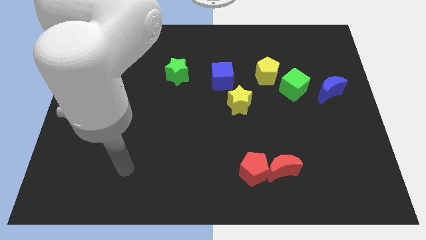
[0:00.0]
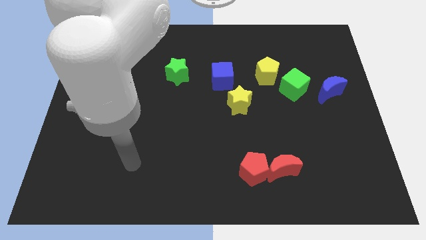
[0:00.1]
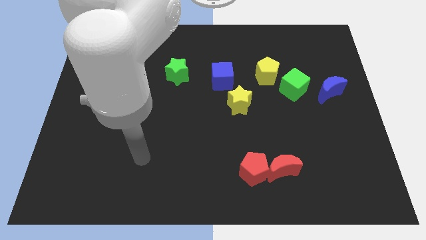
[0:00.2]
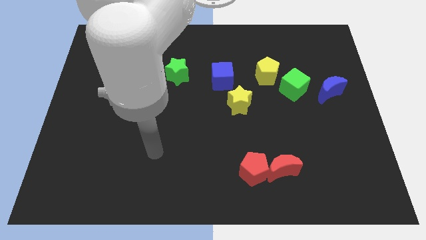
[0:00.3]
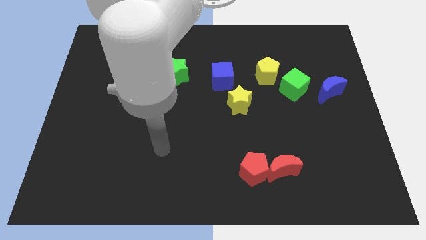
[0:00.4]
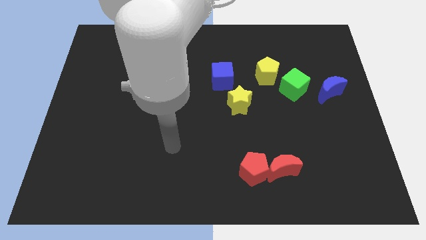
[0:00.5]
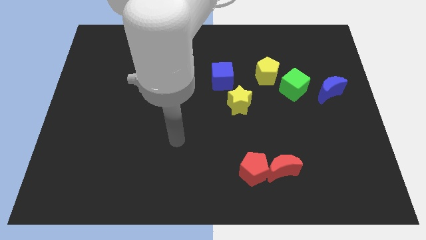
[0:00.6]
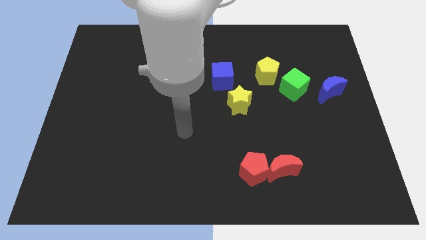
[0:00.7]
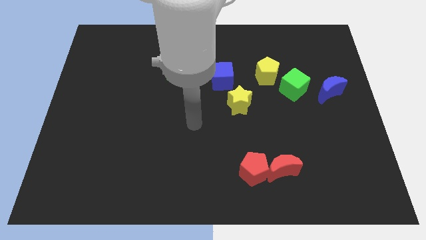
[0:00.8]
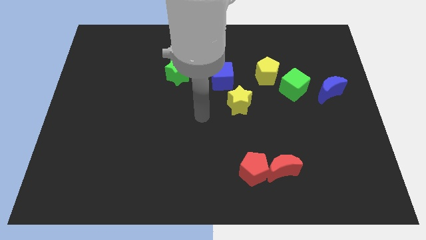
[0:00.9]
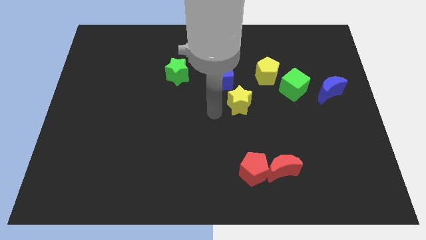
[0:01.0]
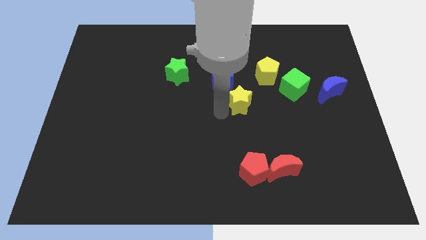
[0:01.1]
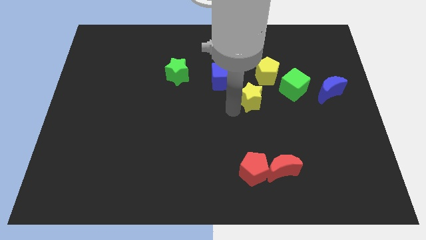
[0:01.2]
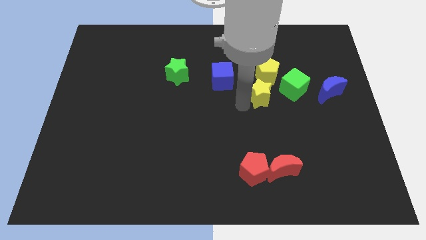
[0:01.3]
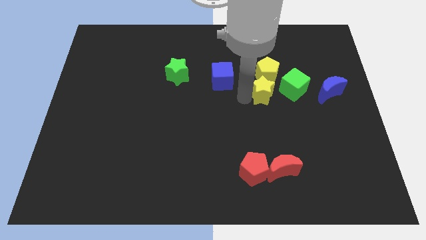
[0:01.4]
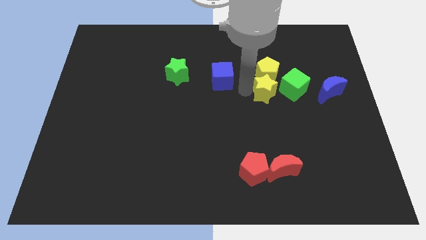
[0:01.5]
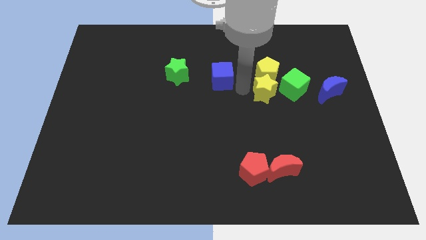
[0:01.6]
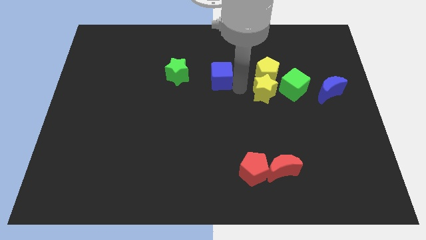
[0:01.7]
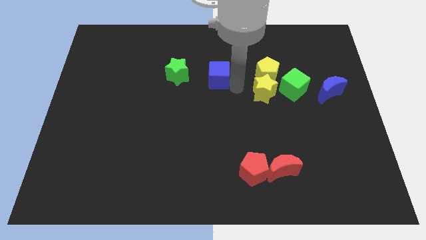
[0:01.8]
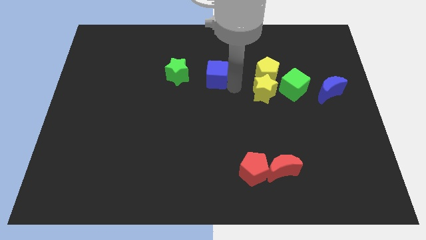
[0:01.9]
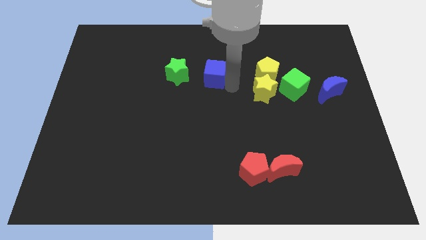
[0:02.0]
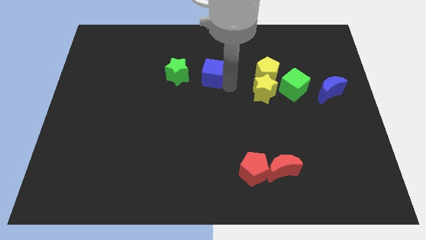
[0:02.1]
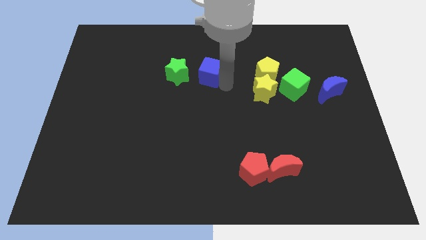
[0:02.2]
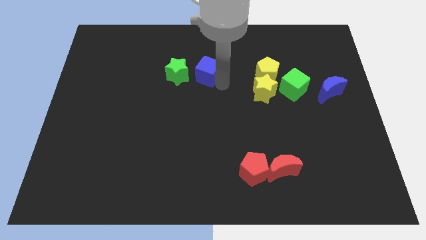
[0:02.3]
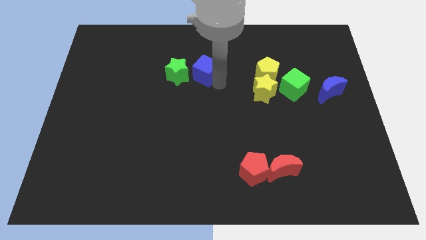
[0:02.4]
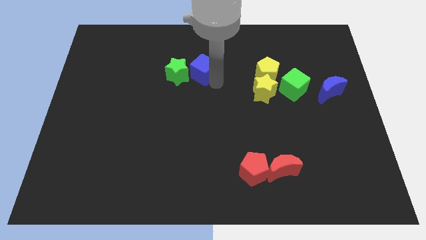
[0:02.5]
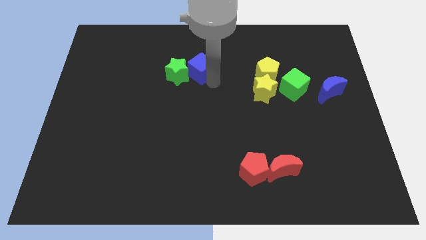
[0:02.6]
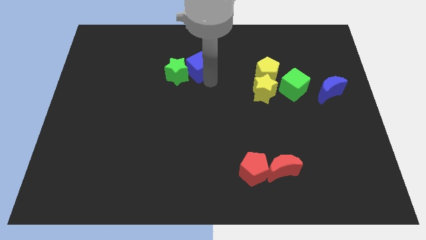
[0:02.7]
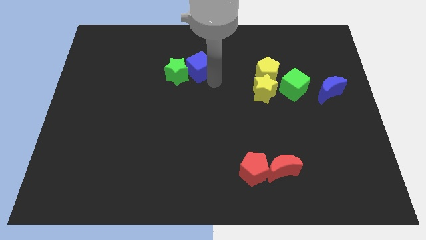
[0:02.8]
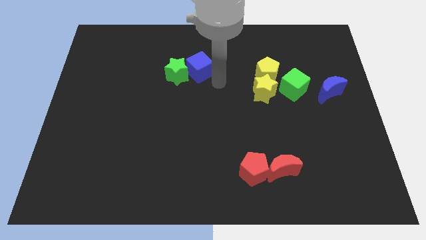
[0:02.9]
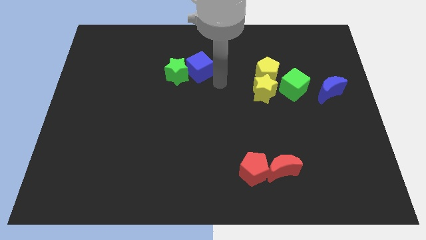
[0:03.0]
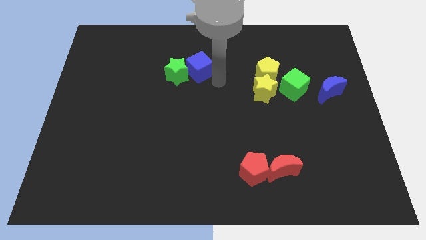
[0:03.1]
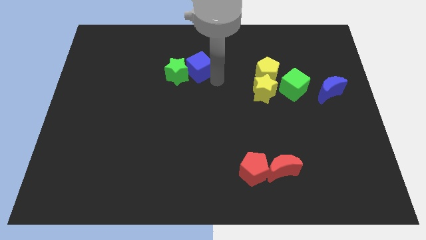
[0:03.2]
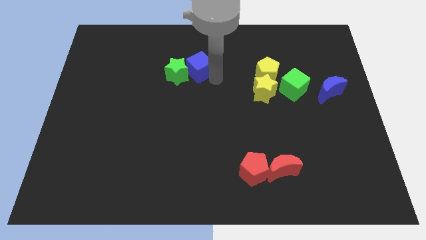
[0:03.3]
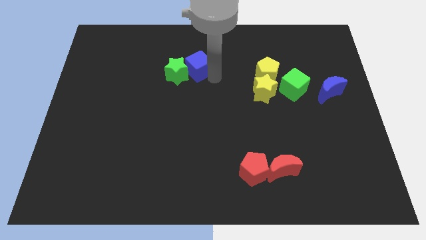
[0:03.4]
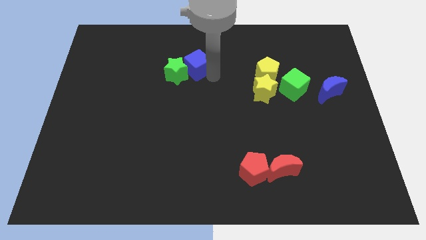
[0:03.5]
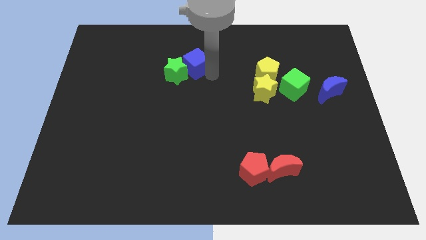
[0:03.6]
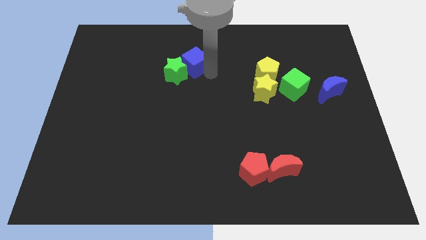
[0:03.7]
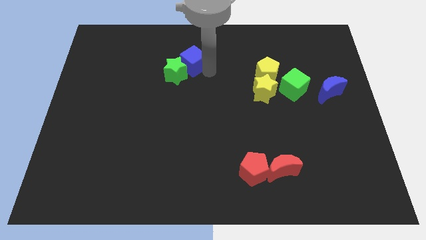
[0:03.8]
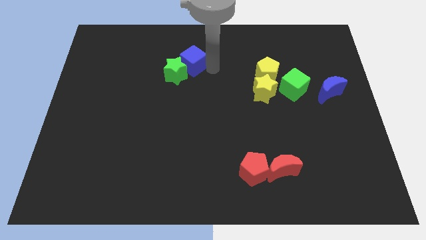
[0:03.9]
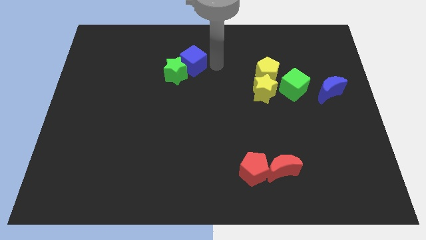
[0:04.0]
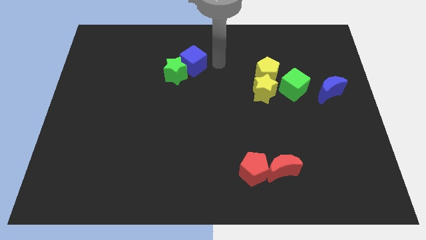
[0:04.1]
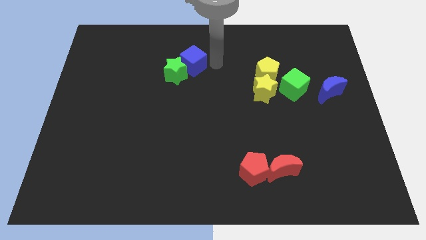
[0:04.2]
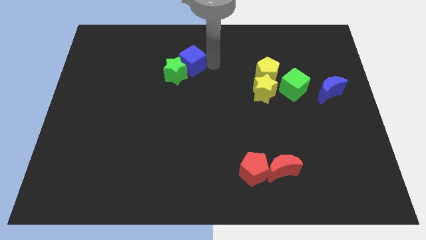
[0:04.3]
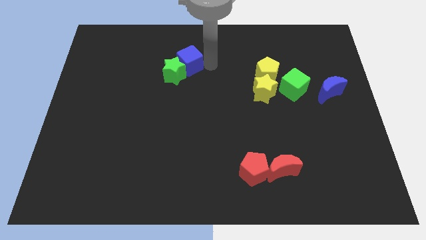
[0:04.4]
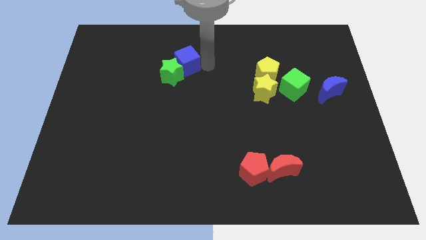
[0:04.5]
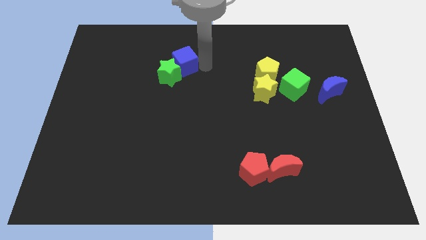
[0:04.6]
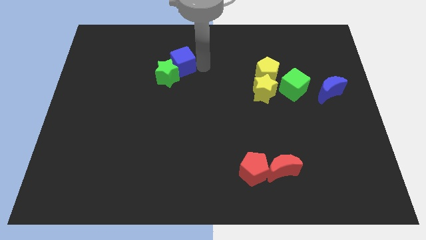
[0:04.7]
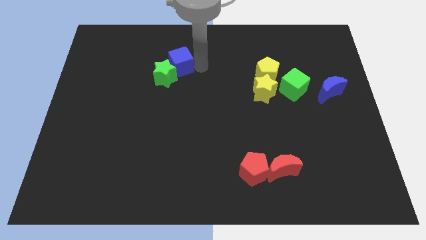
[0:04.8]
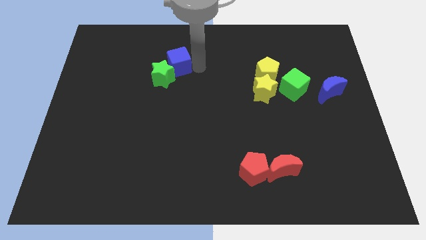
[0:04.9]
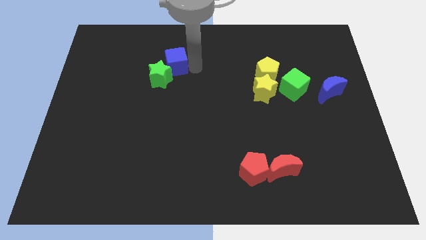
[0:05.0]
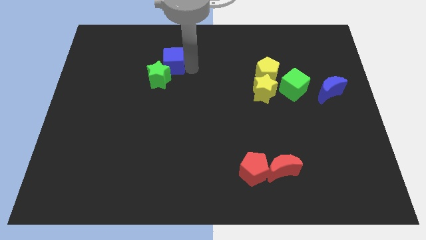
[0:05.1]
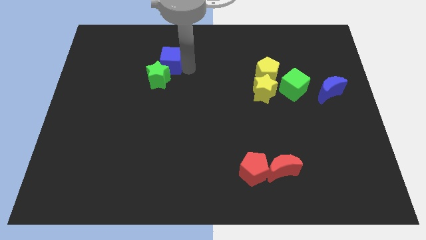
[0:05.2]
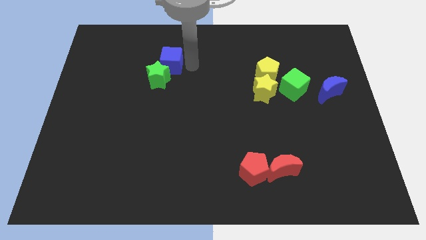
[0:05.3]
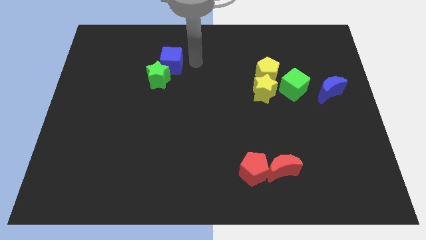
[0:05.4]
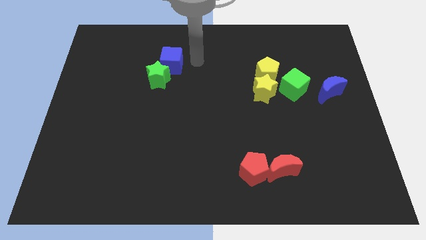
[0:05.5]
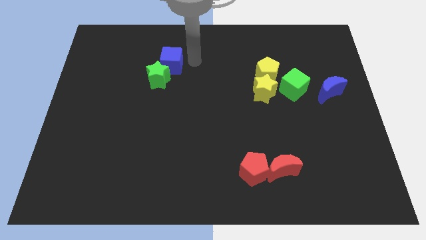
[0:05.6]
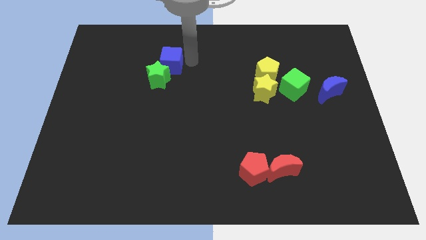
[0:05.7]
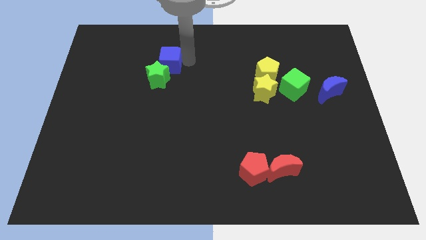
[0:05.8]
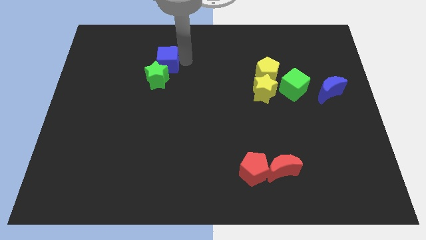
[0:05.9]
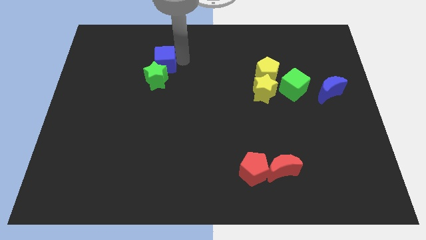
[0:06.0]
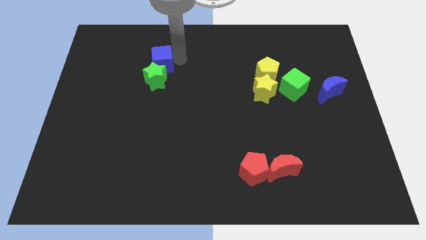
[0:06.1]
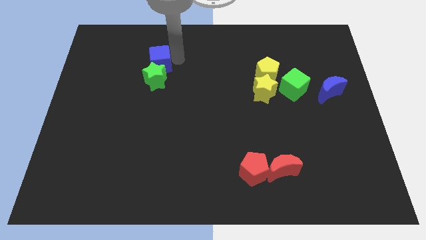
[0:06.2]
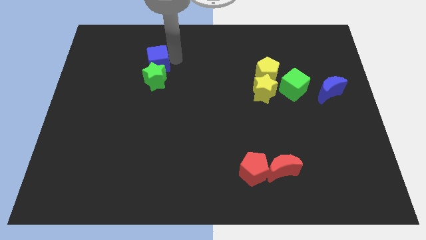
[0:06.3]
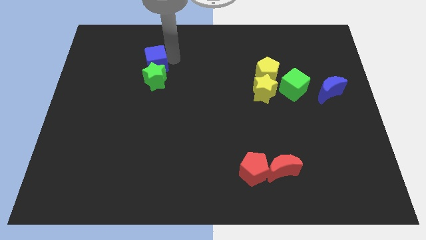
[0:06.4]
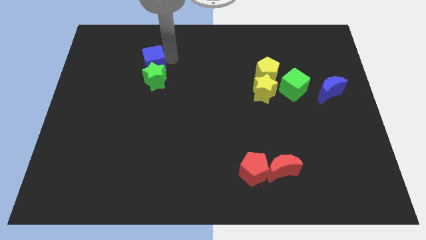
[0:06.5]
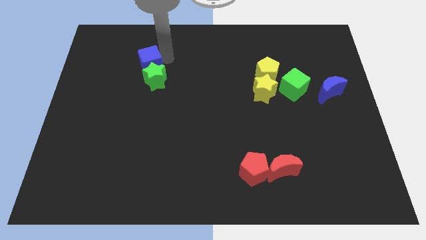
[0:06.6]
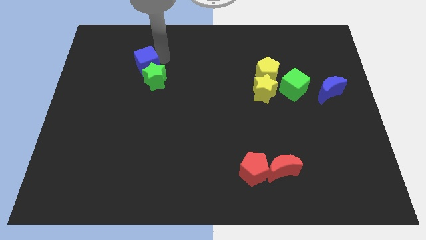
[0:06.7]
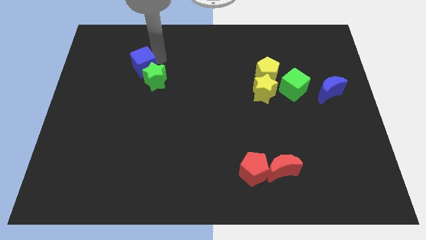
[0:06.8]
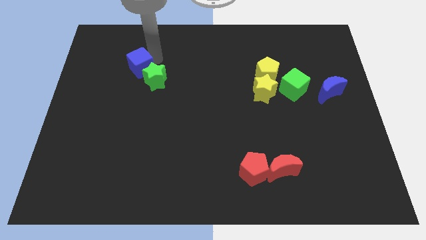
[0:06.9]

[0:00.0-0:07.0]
put the blue cube to the left side of the green star

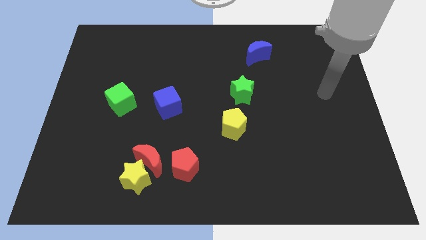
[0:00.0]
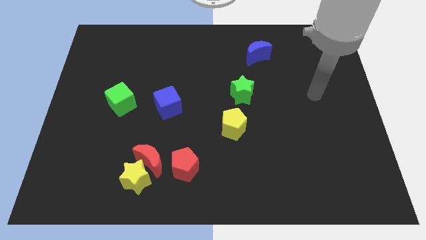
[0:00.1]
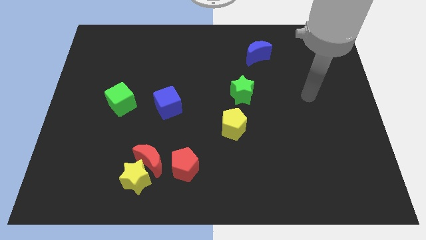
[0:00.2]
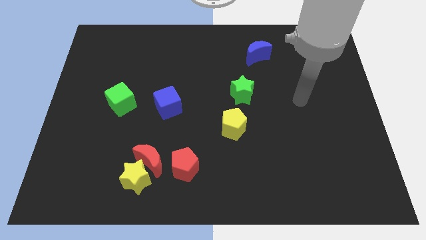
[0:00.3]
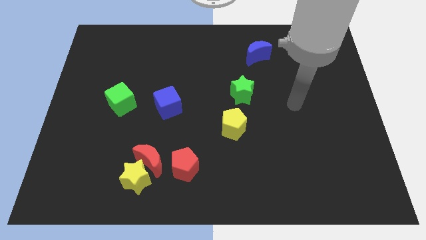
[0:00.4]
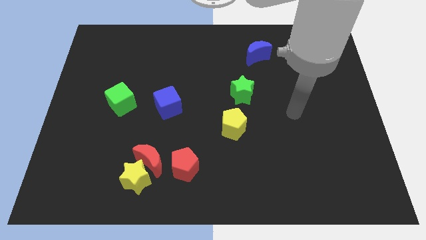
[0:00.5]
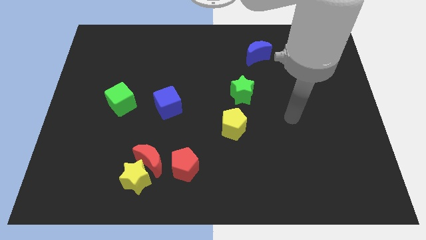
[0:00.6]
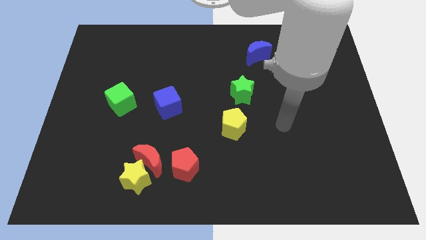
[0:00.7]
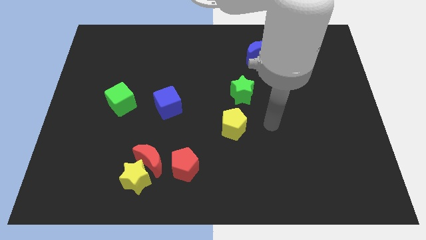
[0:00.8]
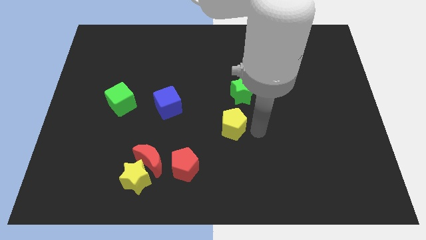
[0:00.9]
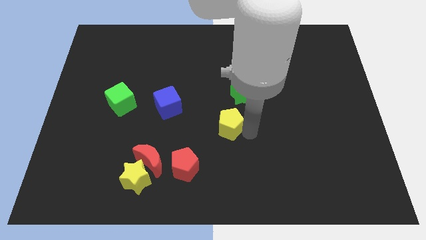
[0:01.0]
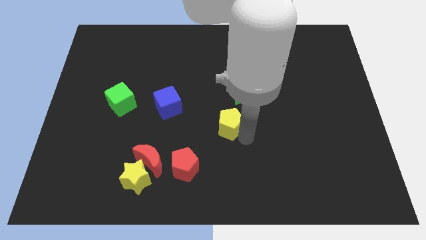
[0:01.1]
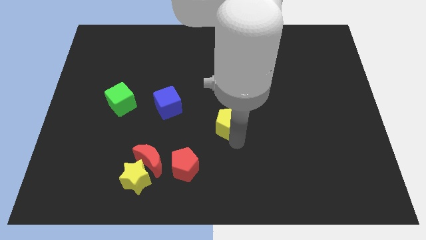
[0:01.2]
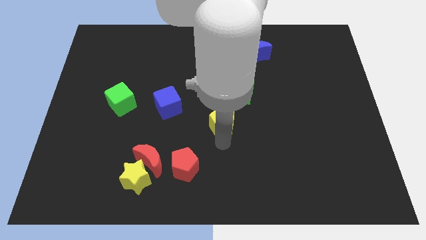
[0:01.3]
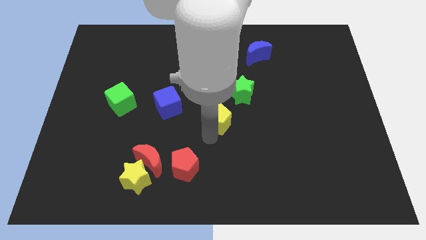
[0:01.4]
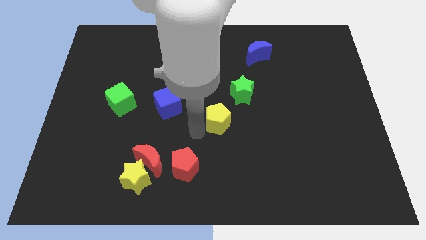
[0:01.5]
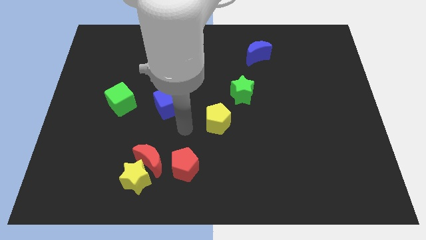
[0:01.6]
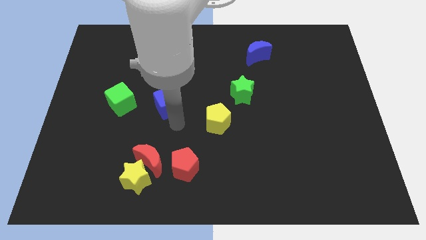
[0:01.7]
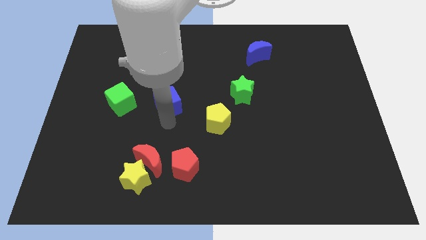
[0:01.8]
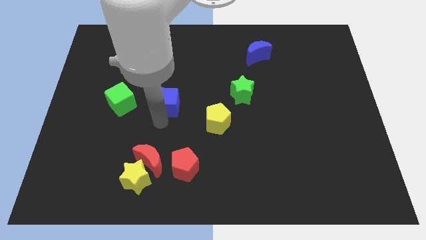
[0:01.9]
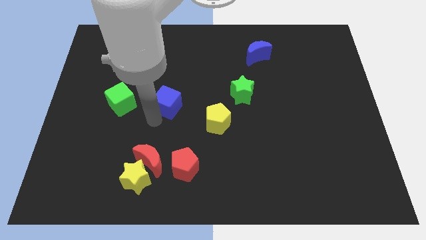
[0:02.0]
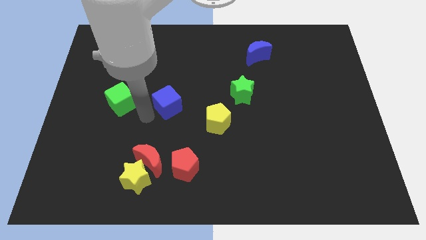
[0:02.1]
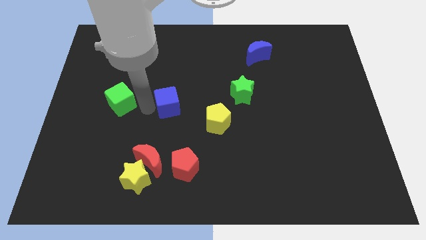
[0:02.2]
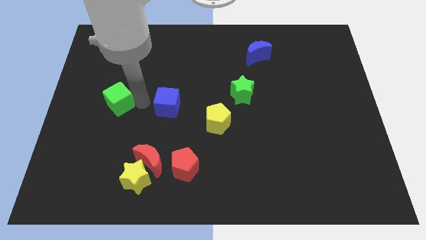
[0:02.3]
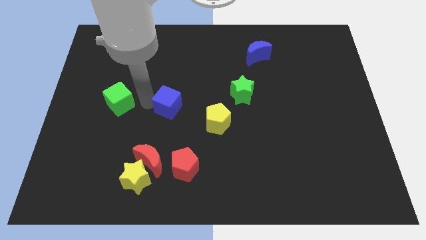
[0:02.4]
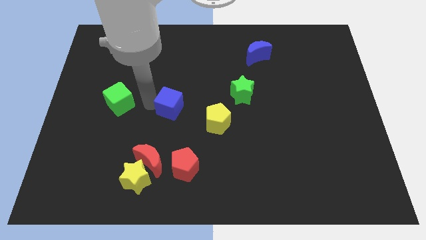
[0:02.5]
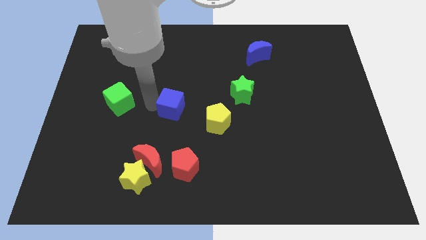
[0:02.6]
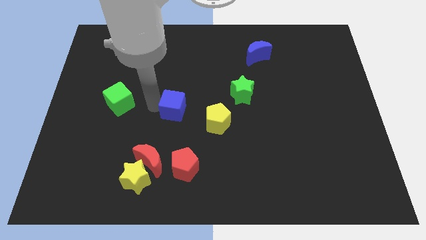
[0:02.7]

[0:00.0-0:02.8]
move the blue cube to the top left of the yellow pentagon
